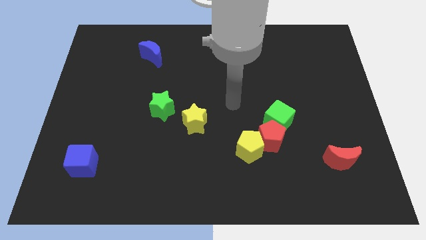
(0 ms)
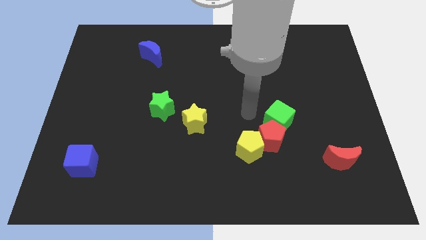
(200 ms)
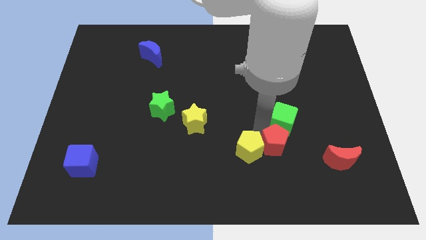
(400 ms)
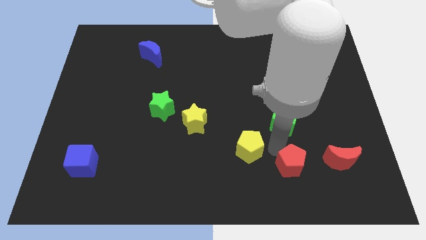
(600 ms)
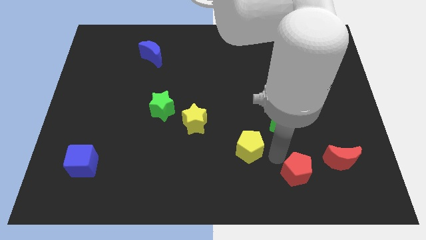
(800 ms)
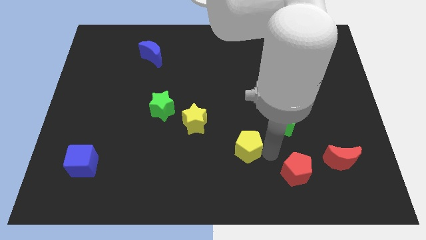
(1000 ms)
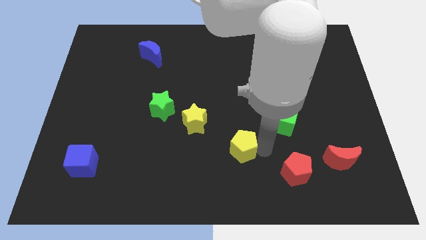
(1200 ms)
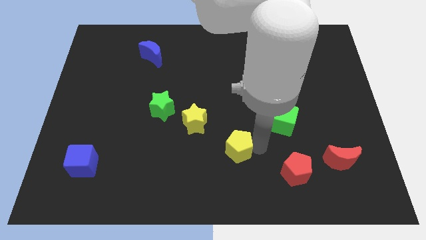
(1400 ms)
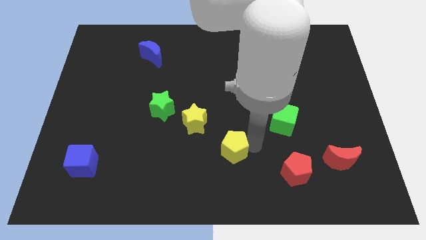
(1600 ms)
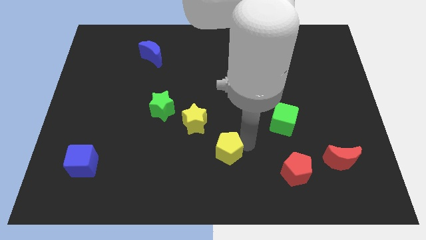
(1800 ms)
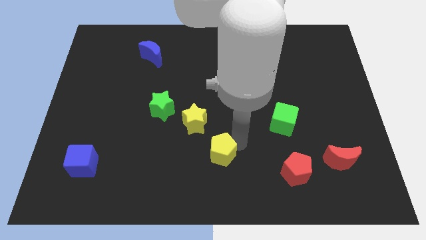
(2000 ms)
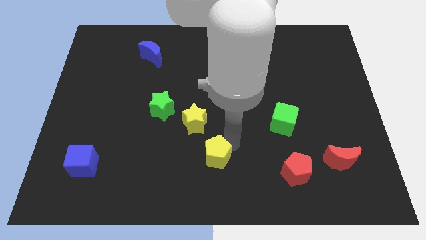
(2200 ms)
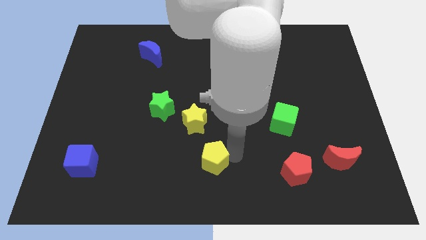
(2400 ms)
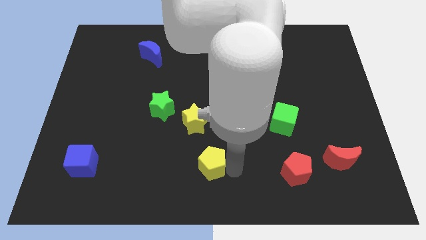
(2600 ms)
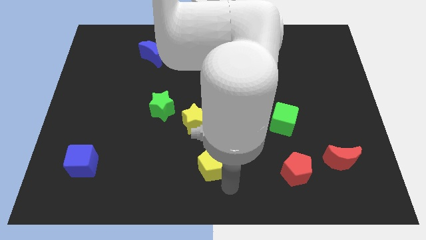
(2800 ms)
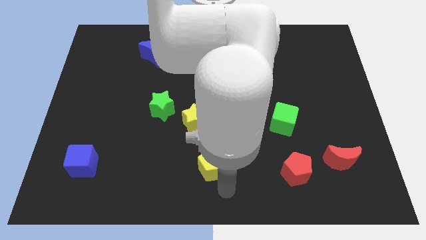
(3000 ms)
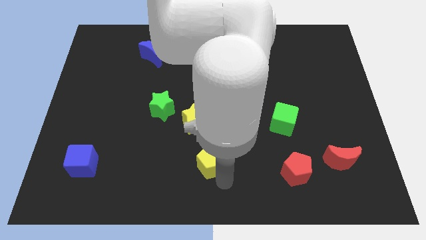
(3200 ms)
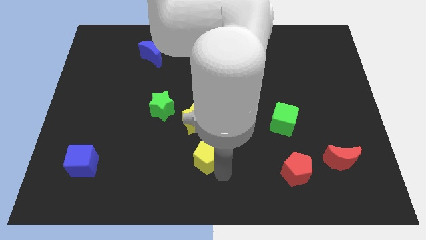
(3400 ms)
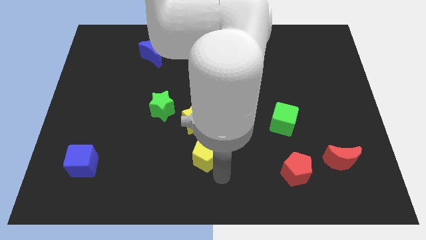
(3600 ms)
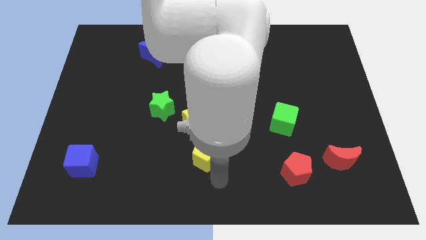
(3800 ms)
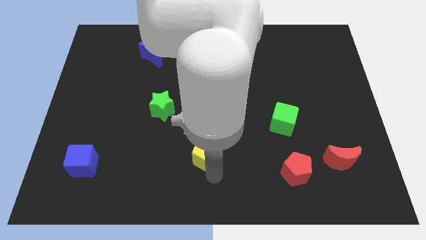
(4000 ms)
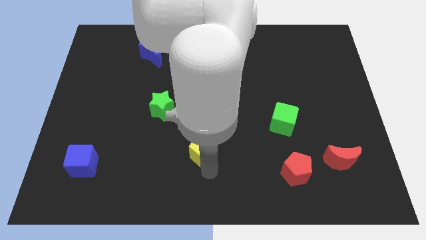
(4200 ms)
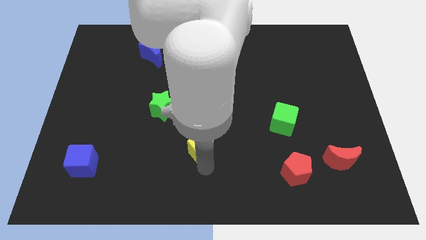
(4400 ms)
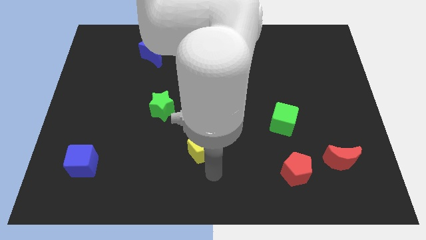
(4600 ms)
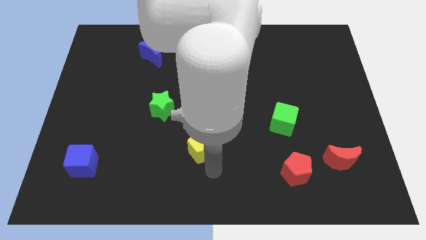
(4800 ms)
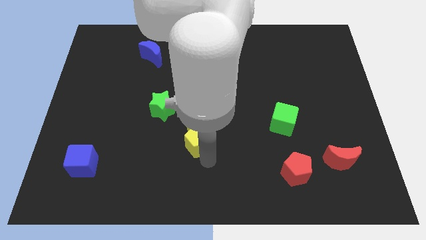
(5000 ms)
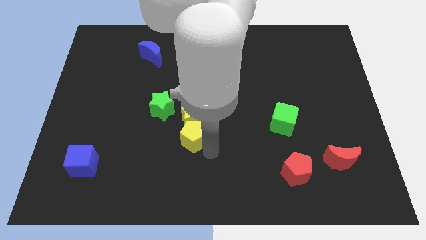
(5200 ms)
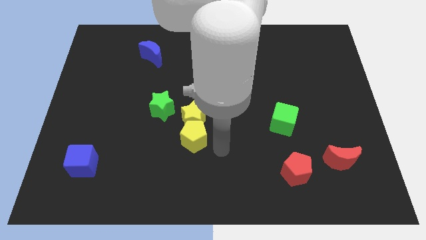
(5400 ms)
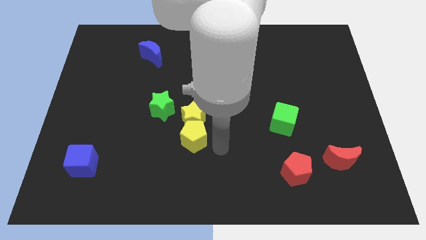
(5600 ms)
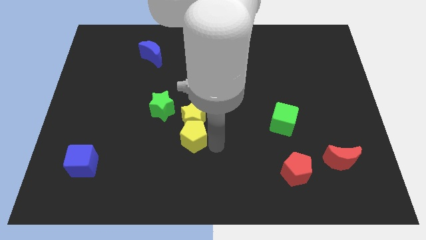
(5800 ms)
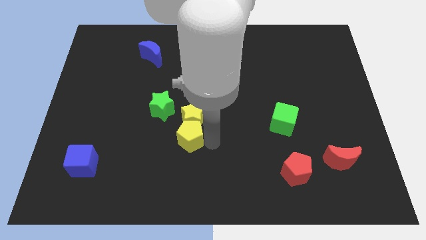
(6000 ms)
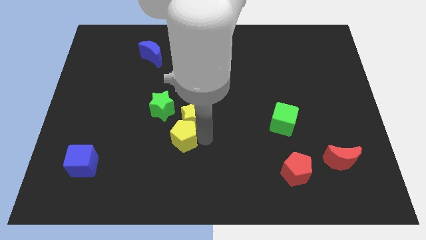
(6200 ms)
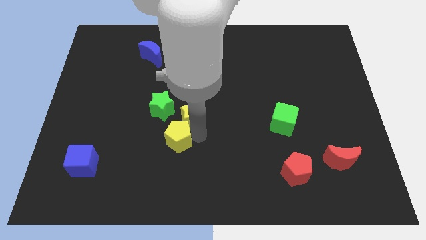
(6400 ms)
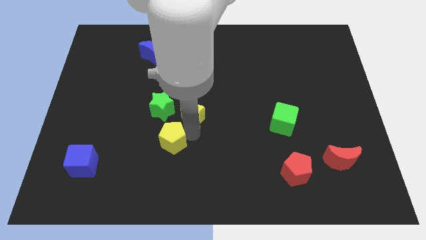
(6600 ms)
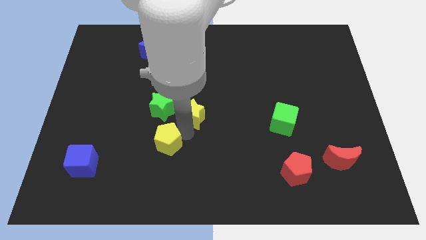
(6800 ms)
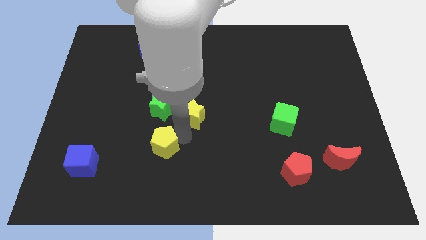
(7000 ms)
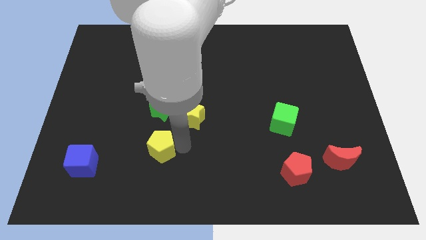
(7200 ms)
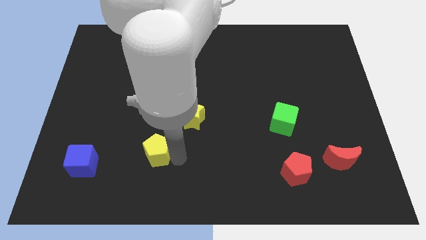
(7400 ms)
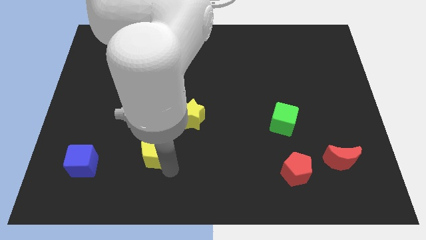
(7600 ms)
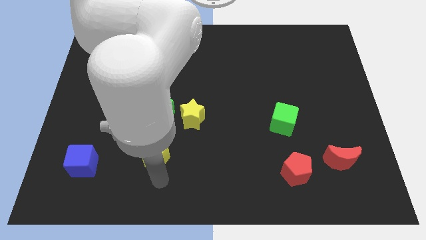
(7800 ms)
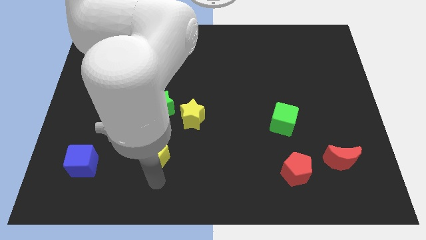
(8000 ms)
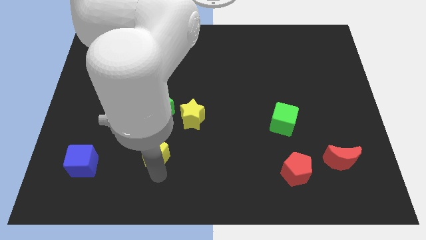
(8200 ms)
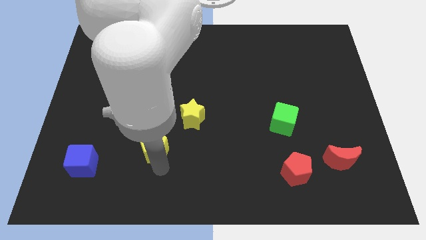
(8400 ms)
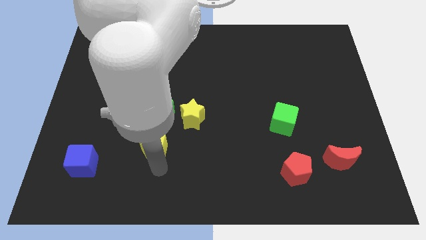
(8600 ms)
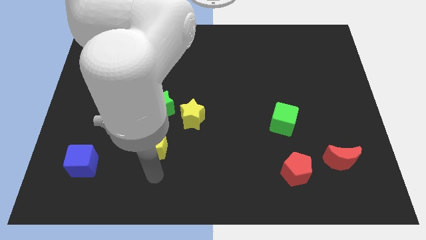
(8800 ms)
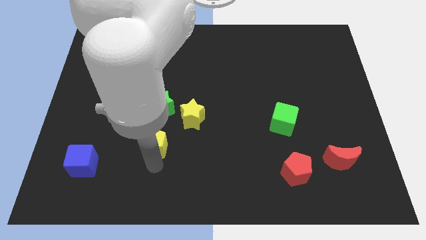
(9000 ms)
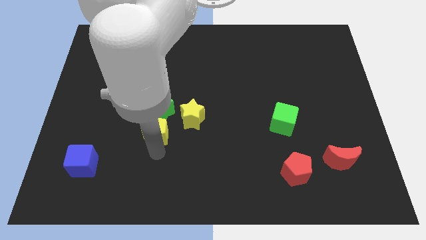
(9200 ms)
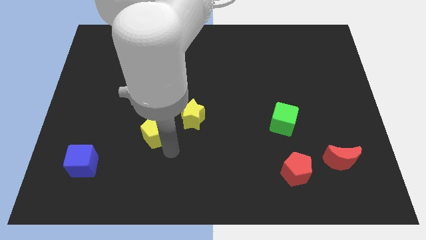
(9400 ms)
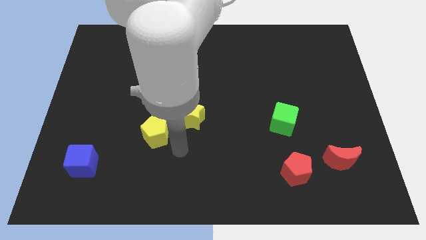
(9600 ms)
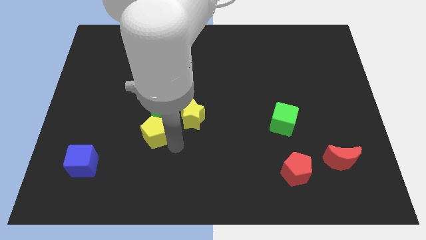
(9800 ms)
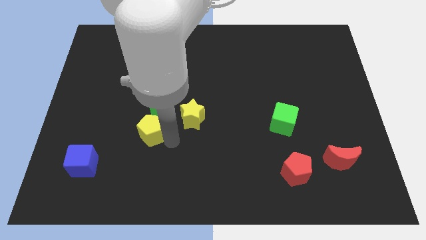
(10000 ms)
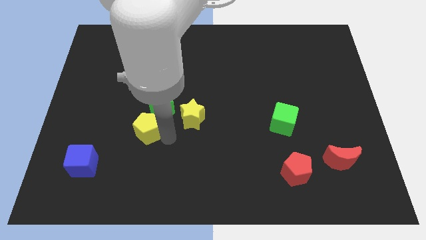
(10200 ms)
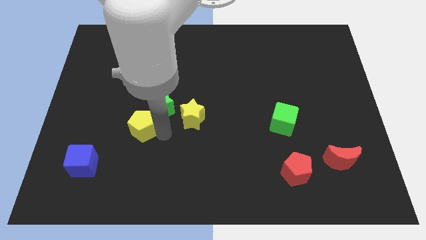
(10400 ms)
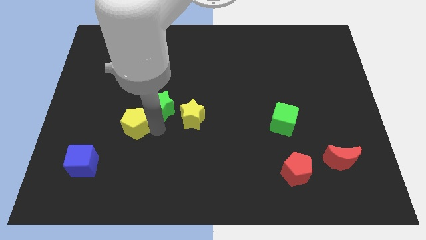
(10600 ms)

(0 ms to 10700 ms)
move the yellow pentagon just left of the green star

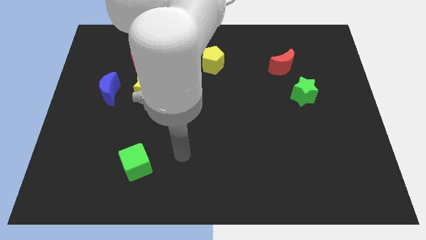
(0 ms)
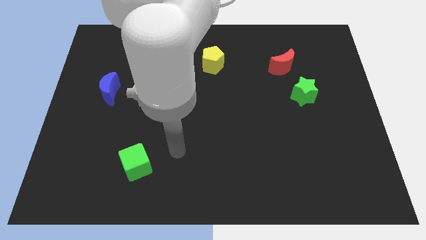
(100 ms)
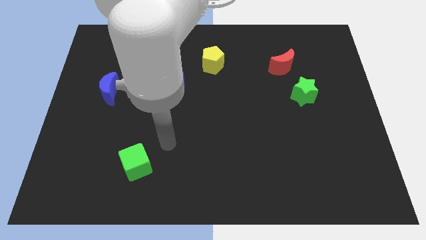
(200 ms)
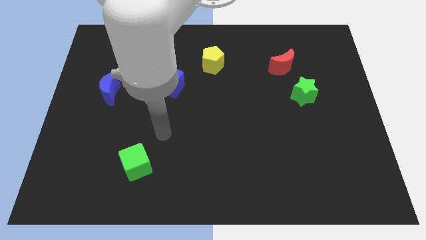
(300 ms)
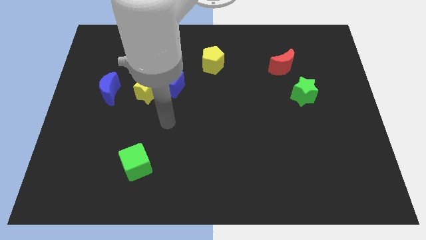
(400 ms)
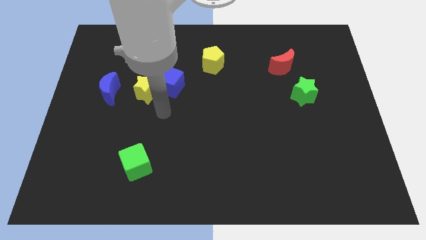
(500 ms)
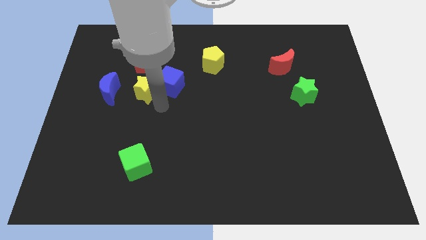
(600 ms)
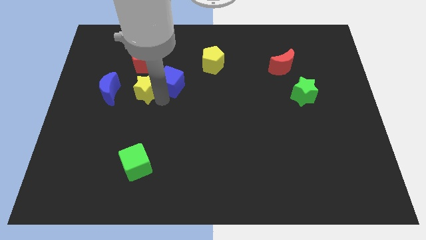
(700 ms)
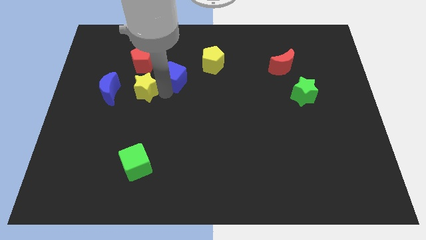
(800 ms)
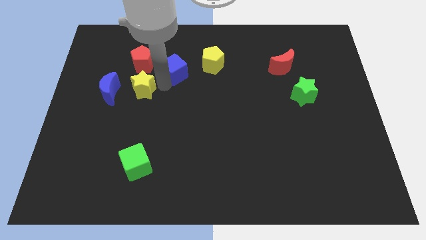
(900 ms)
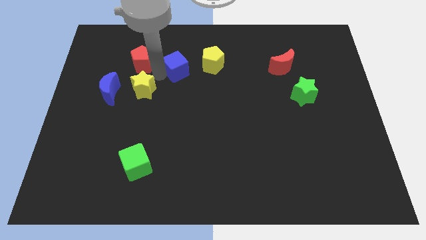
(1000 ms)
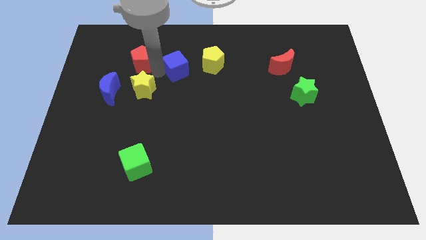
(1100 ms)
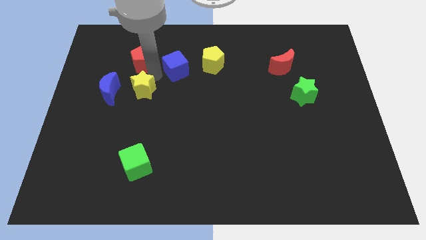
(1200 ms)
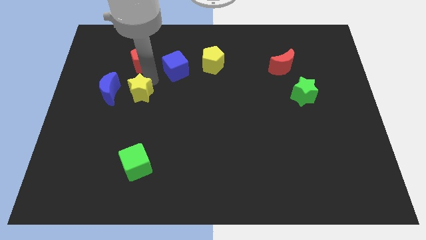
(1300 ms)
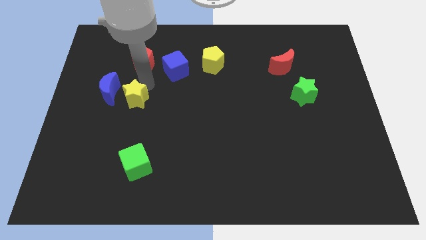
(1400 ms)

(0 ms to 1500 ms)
slide the yellow star to the bottom right of the blue moon
